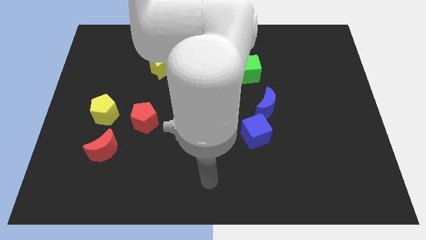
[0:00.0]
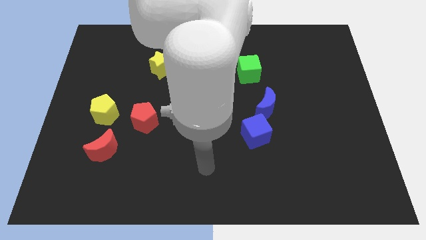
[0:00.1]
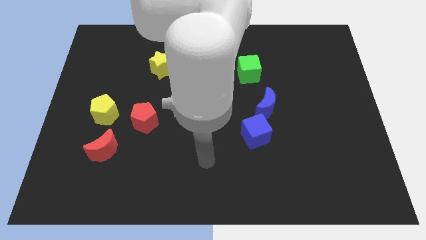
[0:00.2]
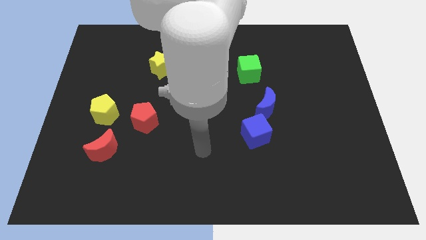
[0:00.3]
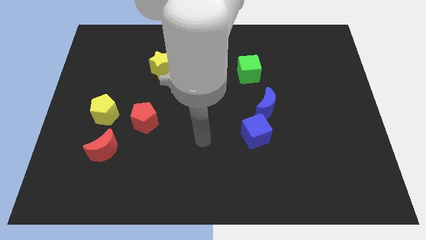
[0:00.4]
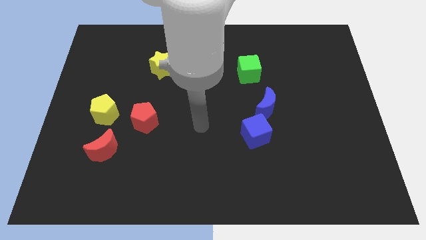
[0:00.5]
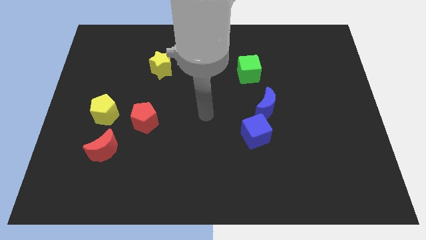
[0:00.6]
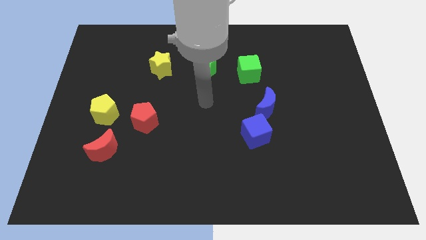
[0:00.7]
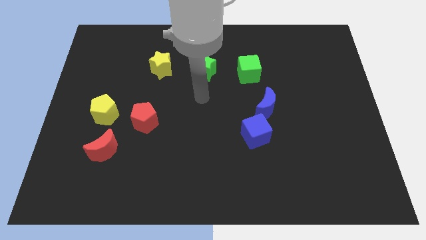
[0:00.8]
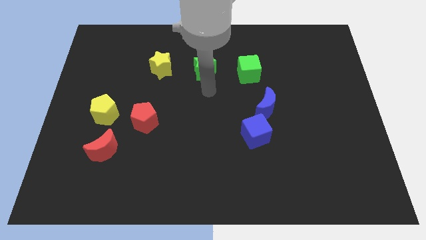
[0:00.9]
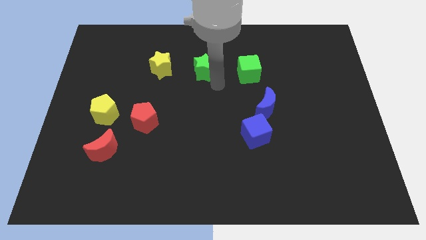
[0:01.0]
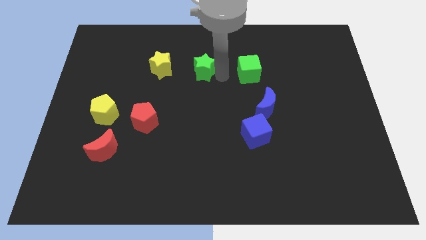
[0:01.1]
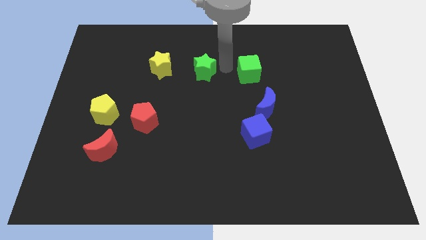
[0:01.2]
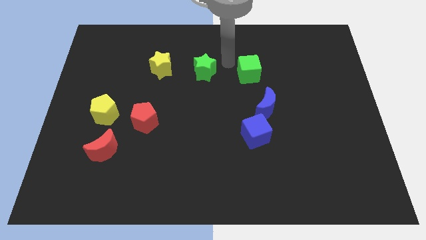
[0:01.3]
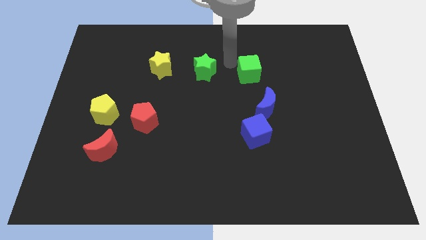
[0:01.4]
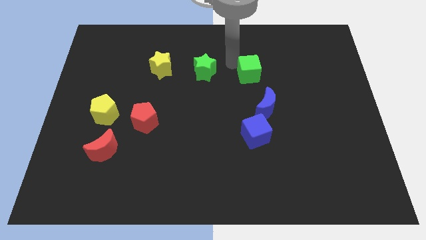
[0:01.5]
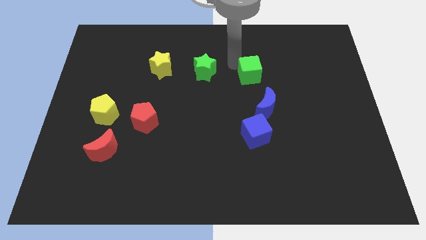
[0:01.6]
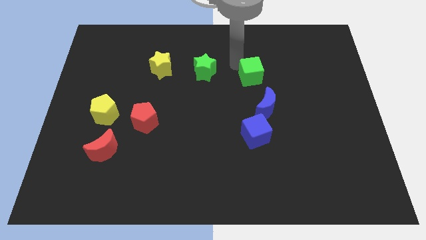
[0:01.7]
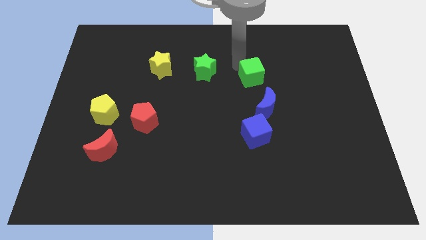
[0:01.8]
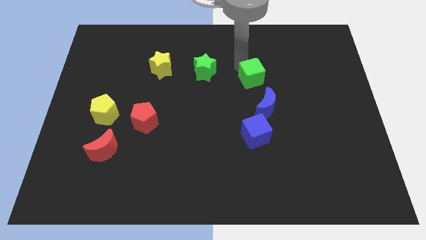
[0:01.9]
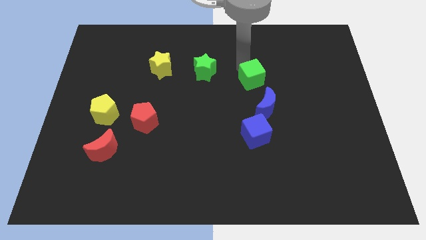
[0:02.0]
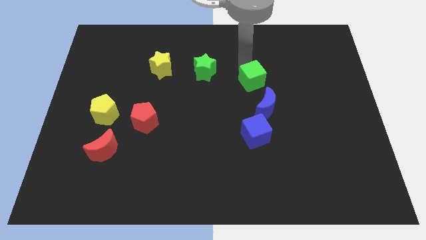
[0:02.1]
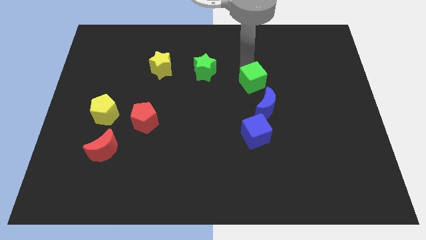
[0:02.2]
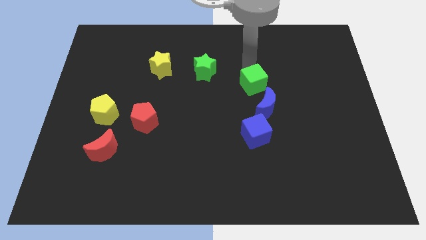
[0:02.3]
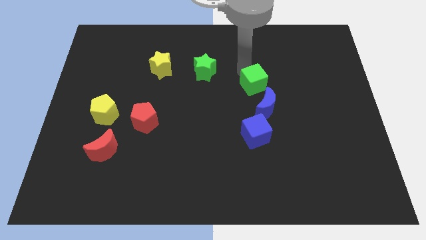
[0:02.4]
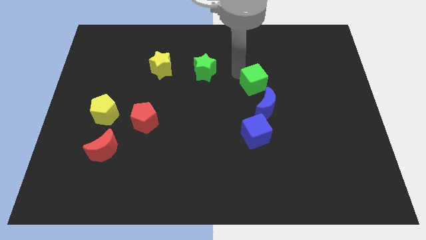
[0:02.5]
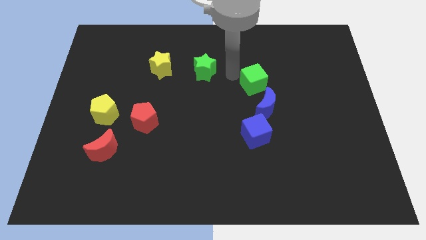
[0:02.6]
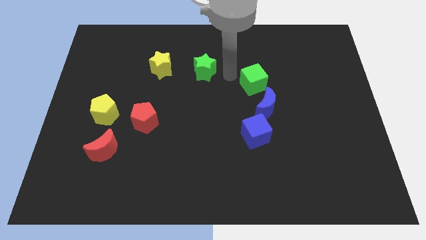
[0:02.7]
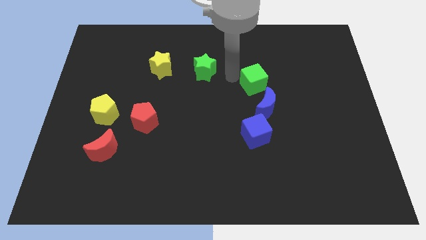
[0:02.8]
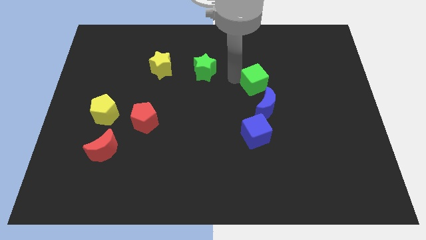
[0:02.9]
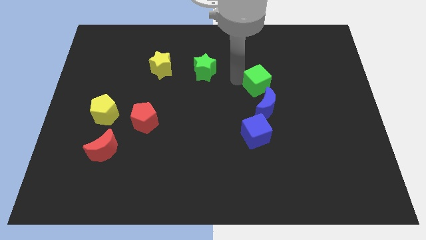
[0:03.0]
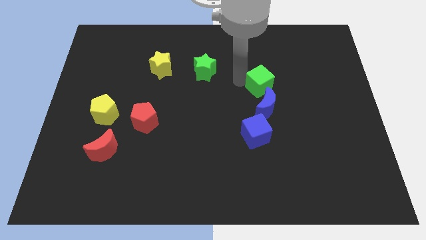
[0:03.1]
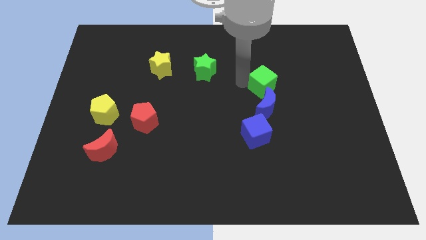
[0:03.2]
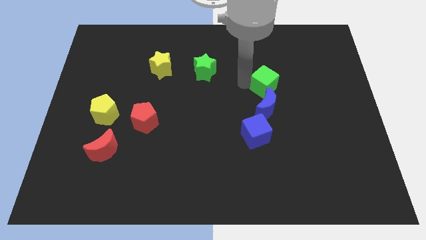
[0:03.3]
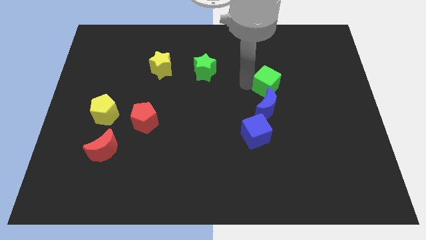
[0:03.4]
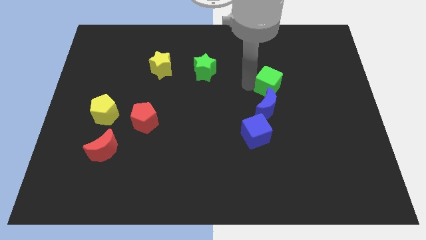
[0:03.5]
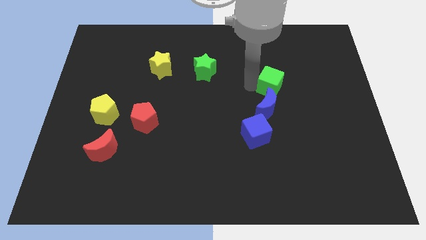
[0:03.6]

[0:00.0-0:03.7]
push the green cube slightly diagonally down and to the right

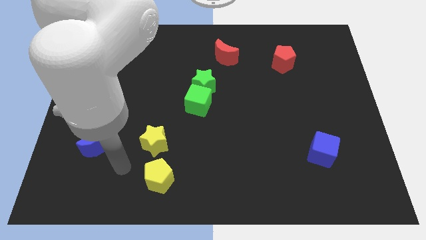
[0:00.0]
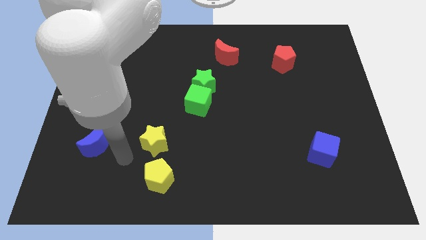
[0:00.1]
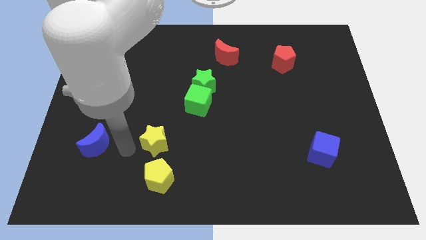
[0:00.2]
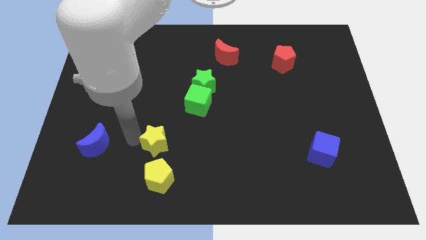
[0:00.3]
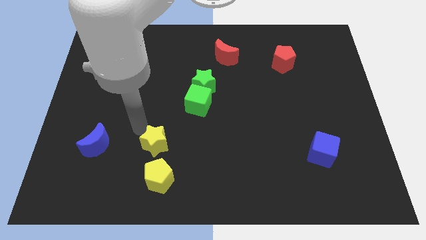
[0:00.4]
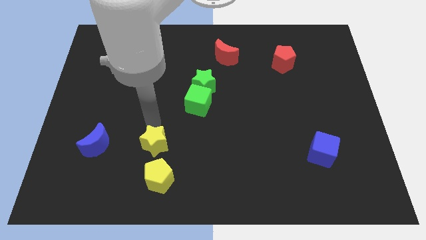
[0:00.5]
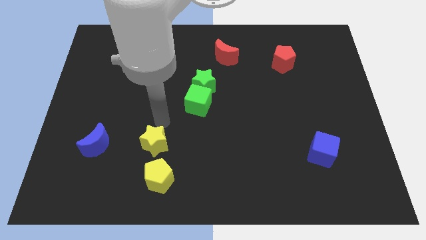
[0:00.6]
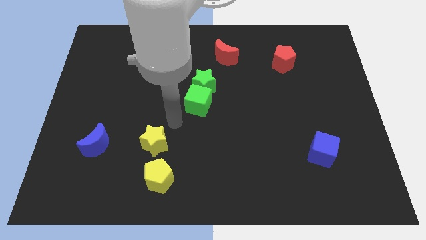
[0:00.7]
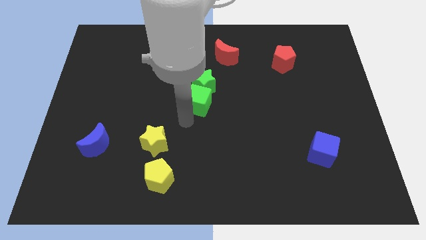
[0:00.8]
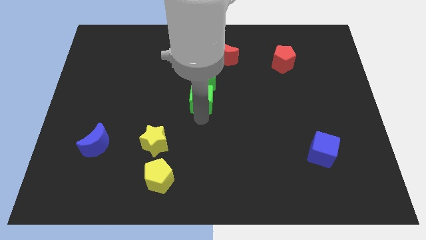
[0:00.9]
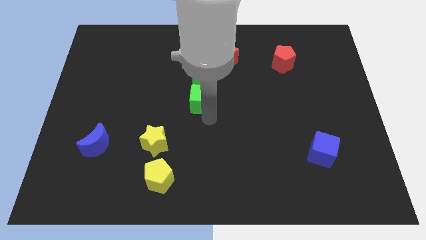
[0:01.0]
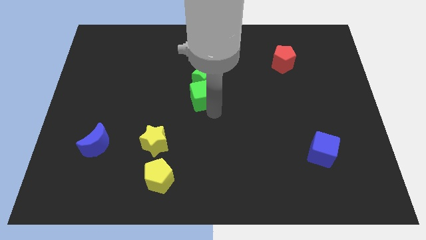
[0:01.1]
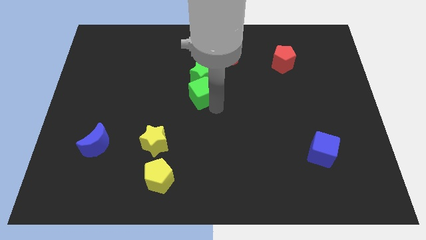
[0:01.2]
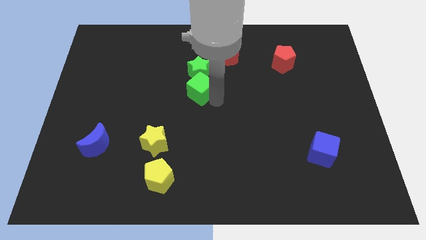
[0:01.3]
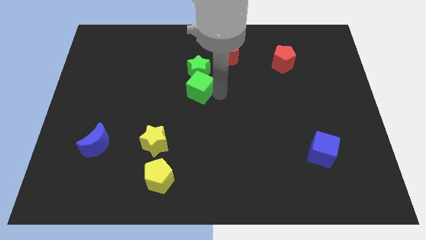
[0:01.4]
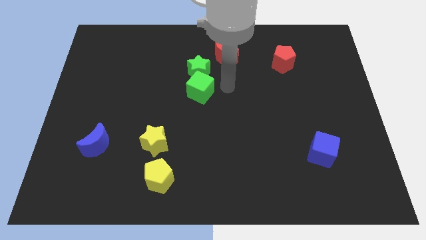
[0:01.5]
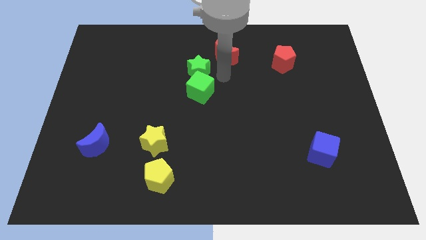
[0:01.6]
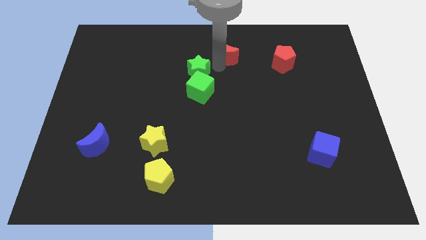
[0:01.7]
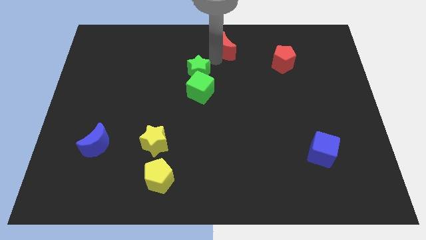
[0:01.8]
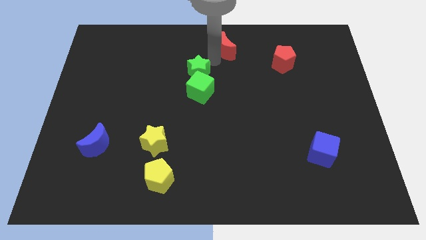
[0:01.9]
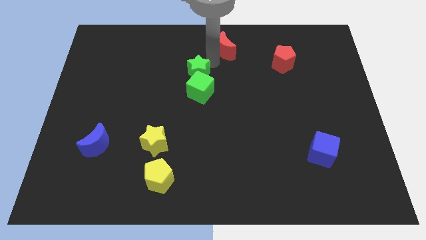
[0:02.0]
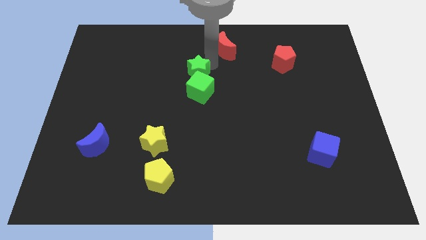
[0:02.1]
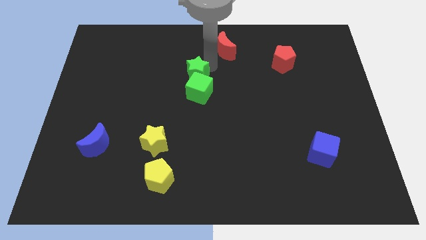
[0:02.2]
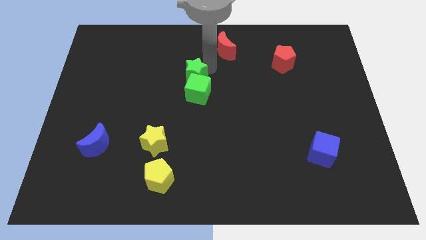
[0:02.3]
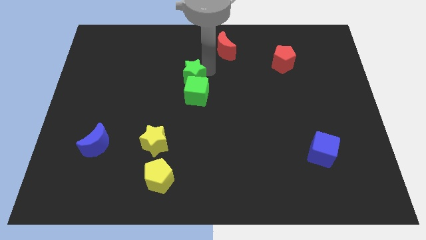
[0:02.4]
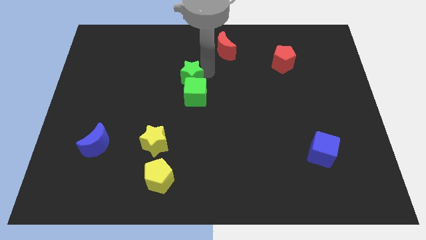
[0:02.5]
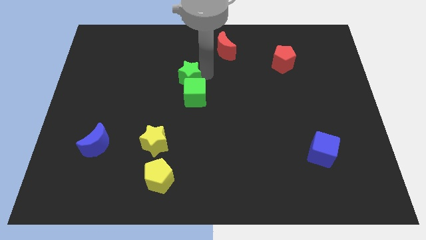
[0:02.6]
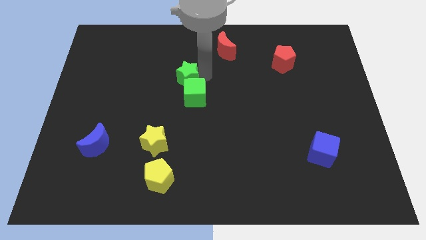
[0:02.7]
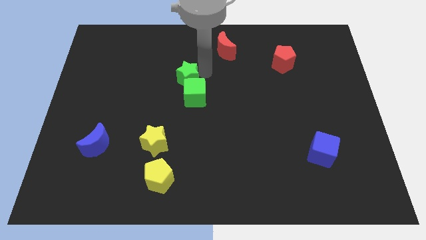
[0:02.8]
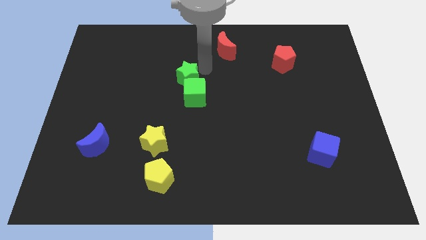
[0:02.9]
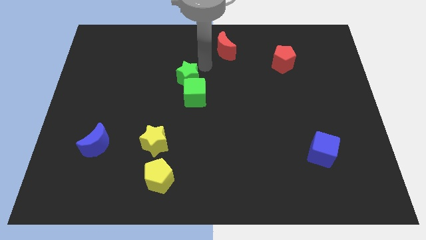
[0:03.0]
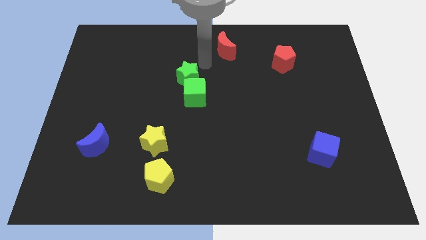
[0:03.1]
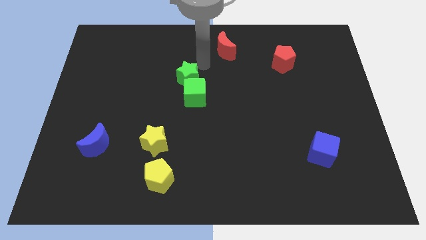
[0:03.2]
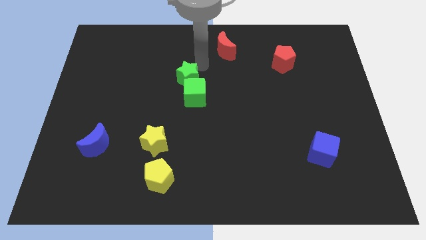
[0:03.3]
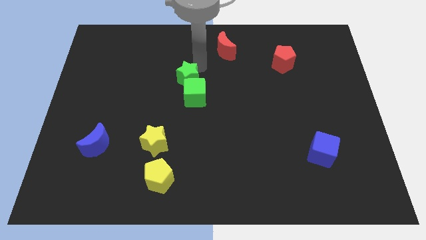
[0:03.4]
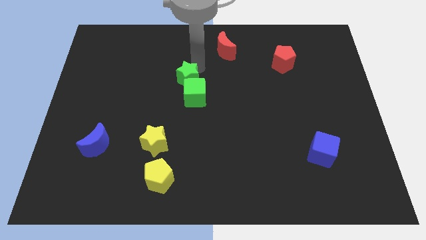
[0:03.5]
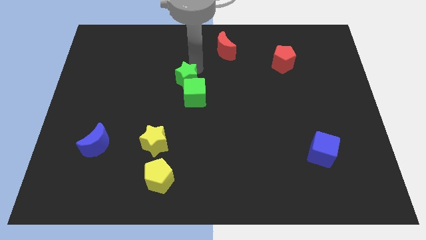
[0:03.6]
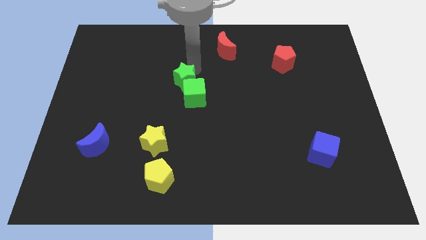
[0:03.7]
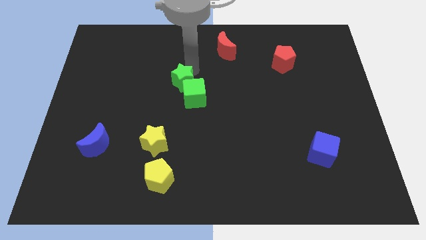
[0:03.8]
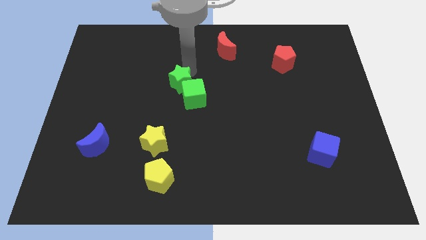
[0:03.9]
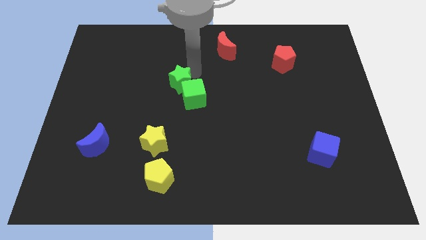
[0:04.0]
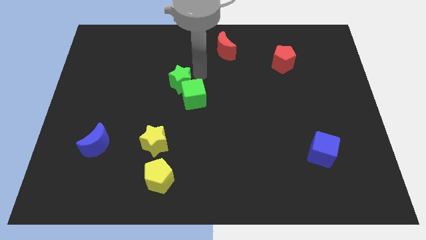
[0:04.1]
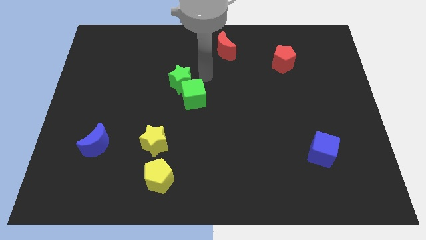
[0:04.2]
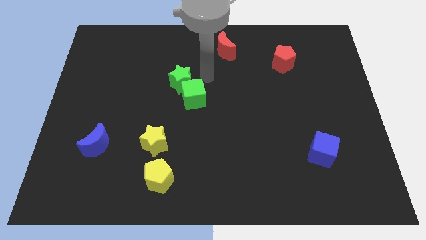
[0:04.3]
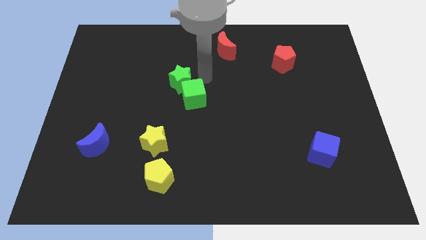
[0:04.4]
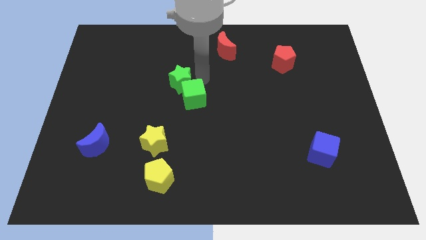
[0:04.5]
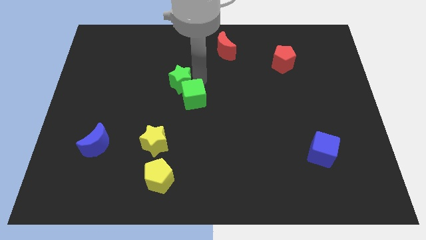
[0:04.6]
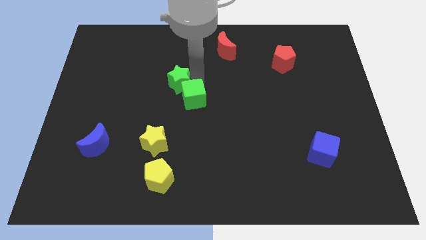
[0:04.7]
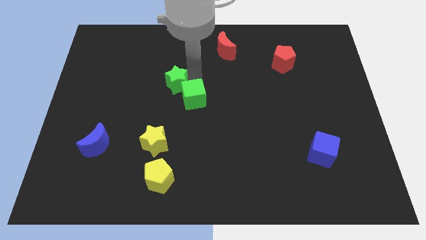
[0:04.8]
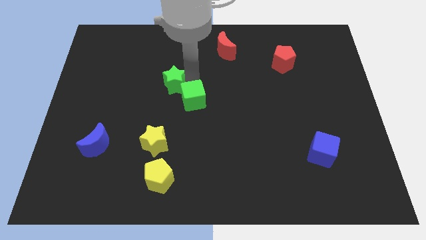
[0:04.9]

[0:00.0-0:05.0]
slightly slide the green star to the left

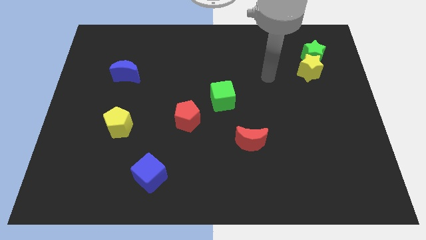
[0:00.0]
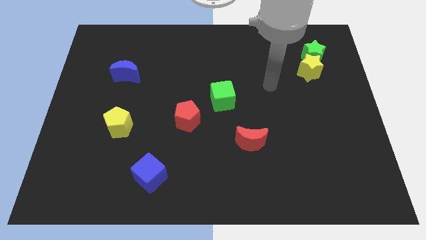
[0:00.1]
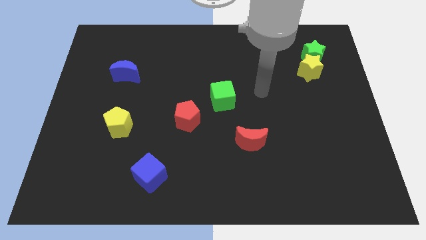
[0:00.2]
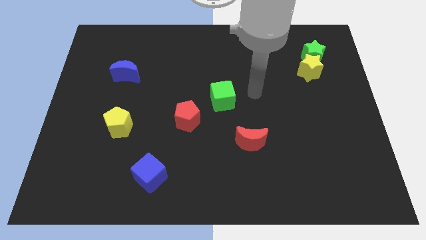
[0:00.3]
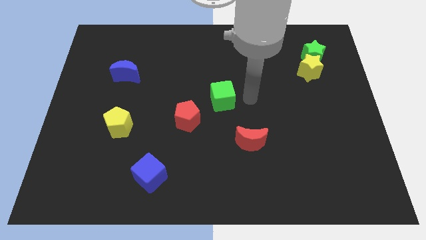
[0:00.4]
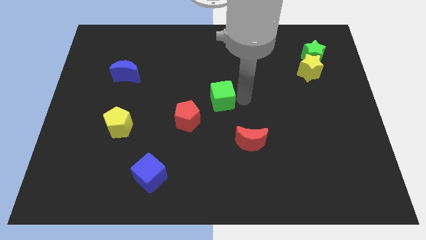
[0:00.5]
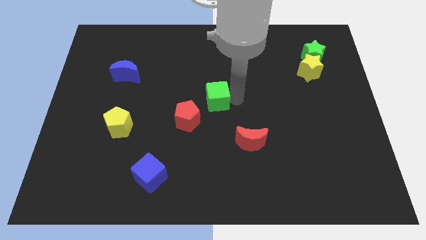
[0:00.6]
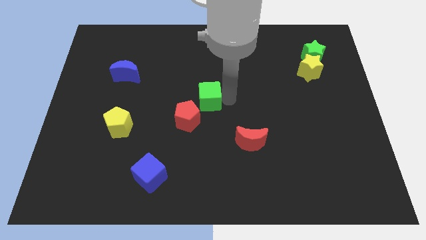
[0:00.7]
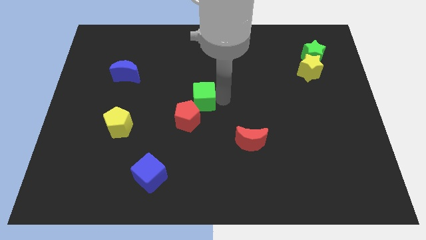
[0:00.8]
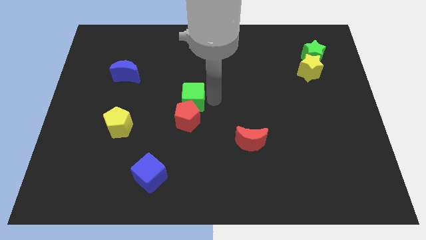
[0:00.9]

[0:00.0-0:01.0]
slightly move the green cube to the left
